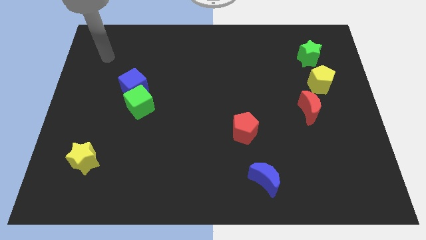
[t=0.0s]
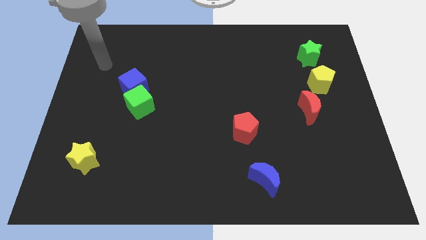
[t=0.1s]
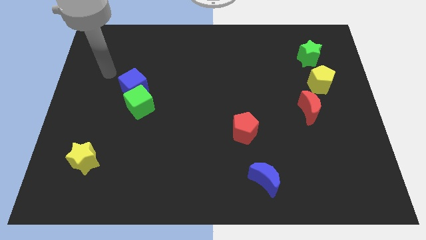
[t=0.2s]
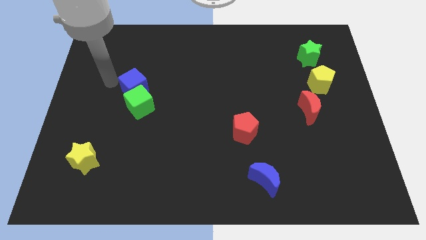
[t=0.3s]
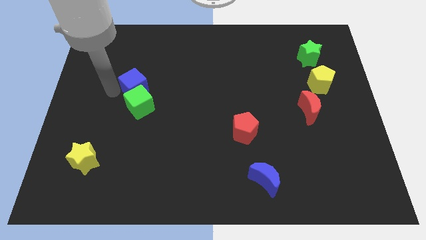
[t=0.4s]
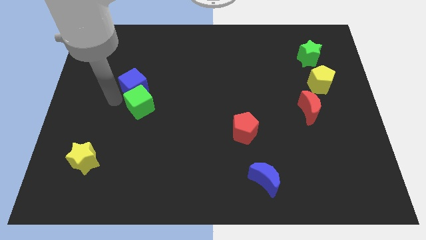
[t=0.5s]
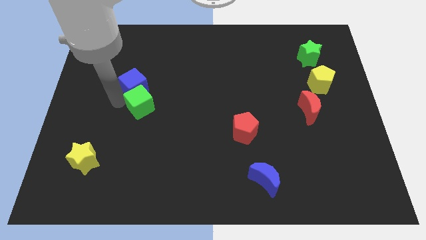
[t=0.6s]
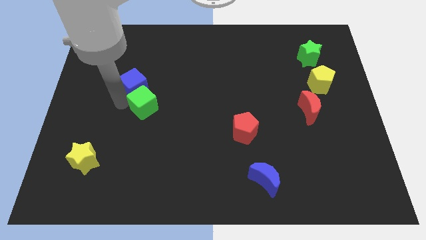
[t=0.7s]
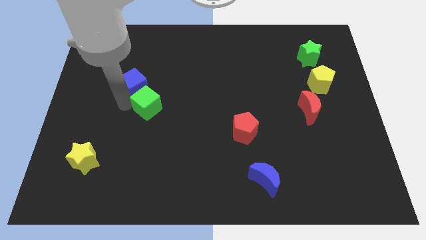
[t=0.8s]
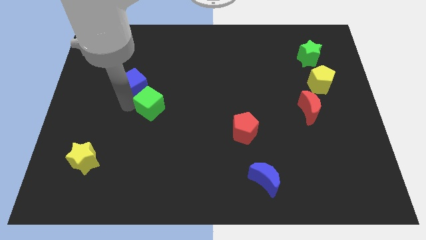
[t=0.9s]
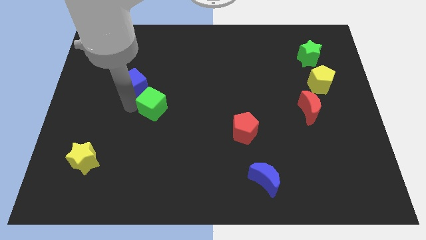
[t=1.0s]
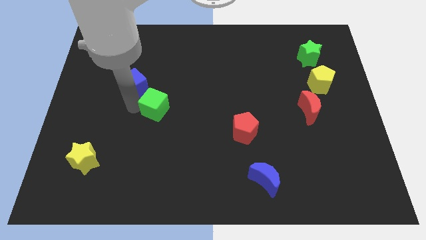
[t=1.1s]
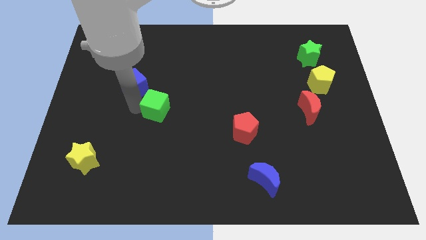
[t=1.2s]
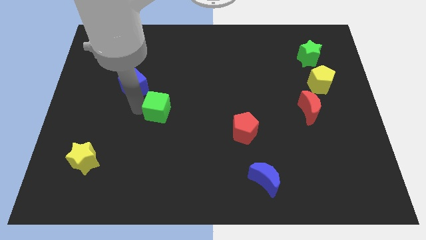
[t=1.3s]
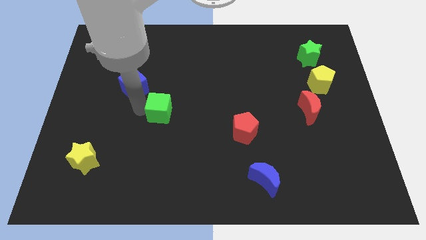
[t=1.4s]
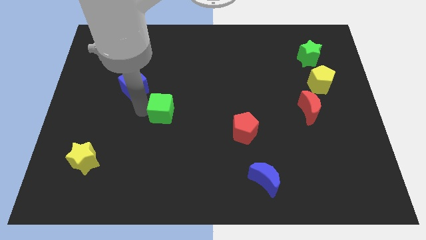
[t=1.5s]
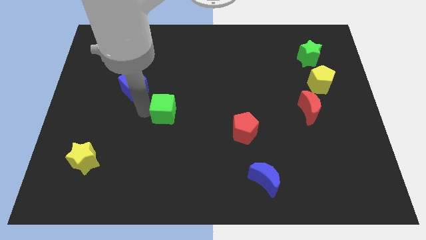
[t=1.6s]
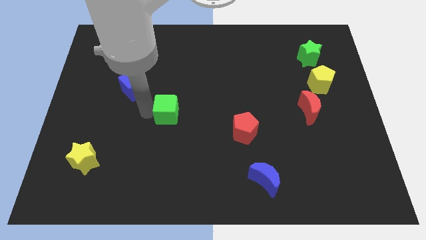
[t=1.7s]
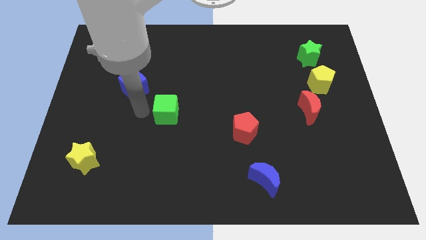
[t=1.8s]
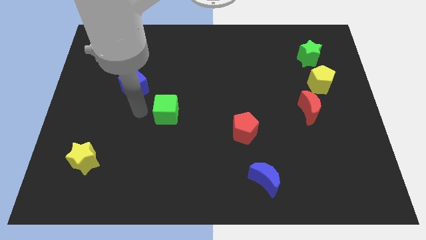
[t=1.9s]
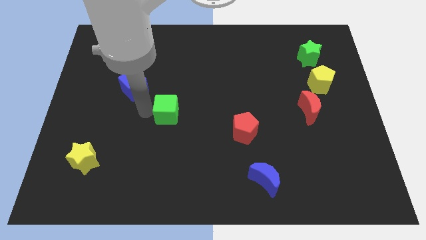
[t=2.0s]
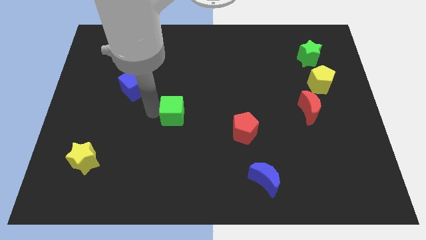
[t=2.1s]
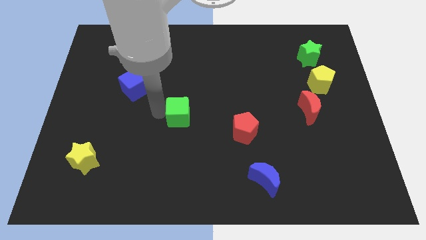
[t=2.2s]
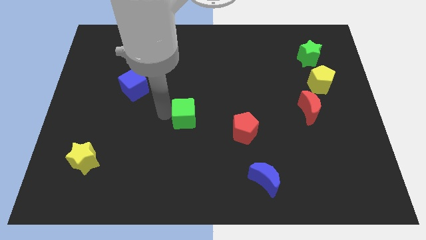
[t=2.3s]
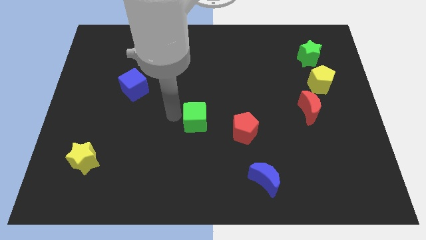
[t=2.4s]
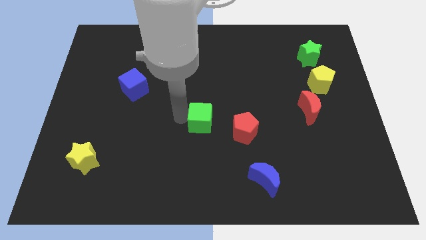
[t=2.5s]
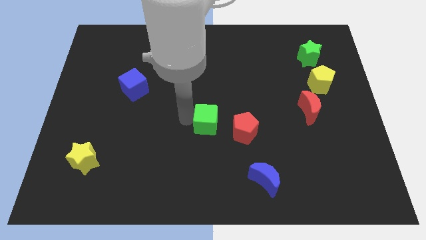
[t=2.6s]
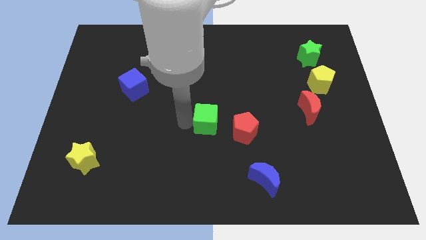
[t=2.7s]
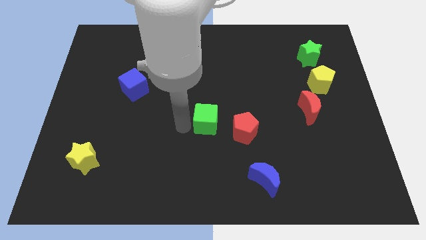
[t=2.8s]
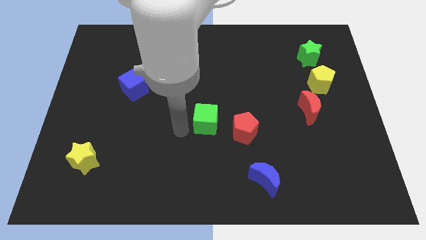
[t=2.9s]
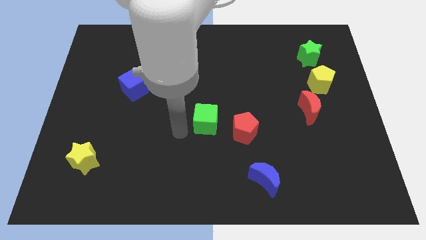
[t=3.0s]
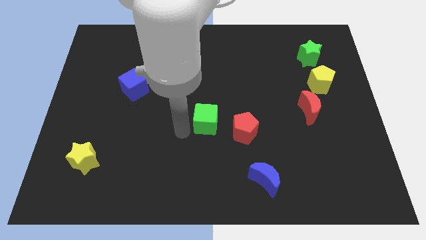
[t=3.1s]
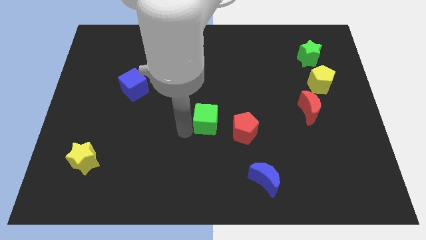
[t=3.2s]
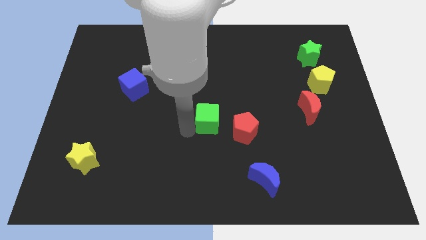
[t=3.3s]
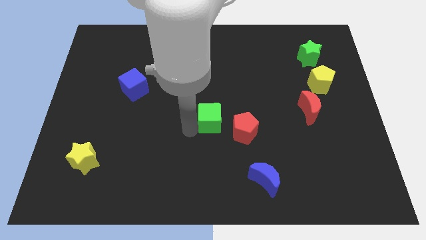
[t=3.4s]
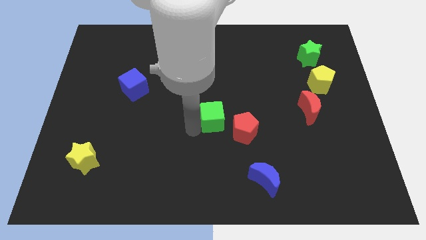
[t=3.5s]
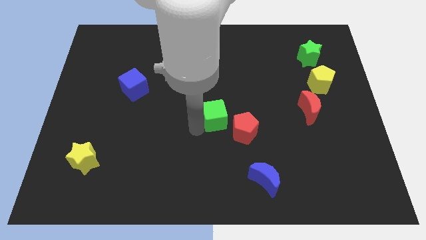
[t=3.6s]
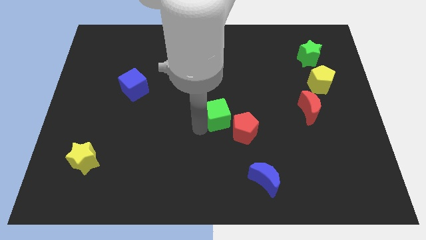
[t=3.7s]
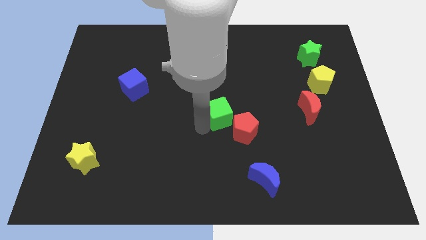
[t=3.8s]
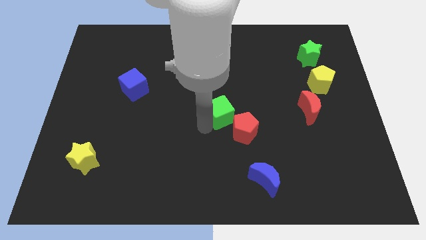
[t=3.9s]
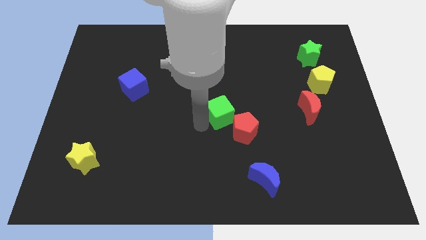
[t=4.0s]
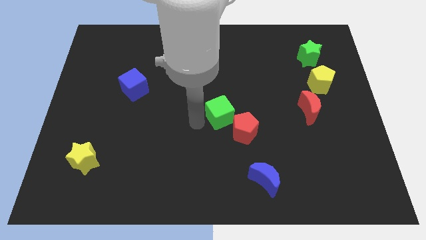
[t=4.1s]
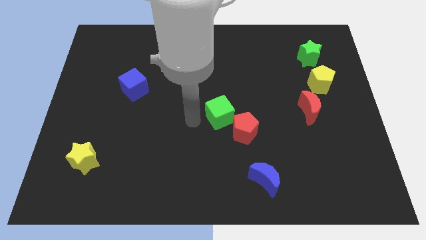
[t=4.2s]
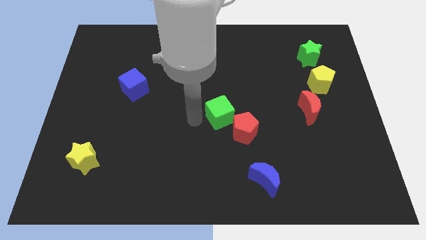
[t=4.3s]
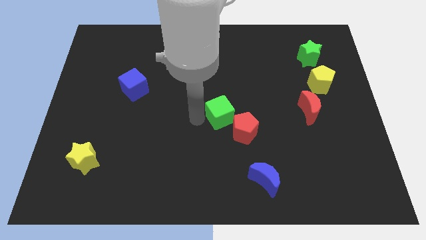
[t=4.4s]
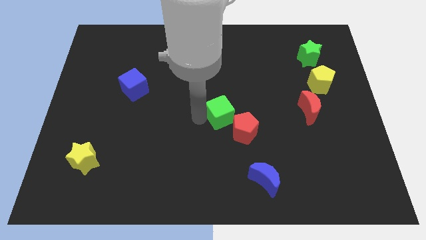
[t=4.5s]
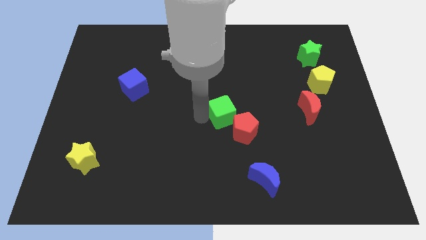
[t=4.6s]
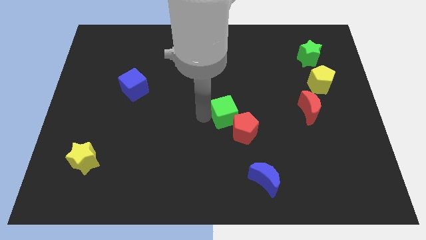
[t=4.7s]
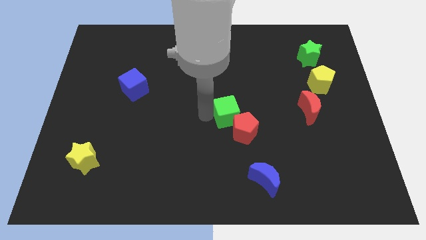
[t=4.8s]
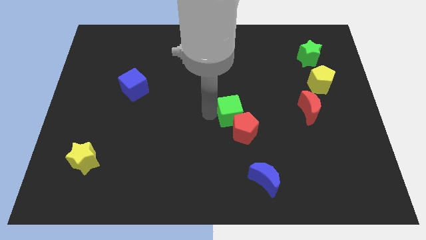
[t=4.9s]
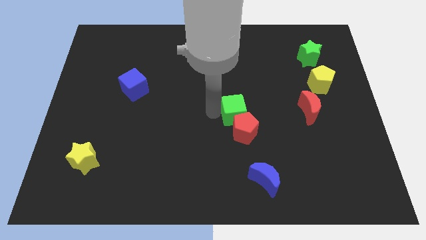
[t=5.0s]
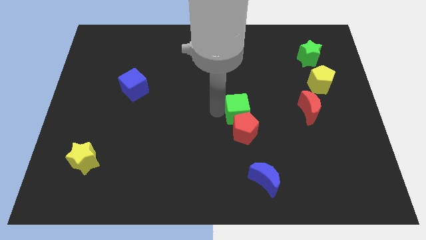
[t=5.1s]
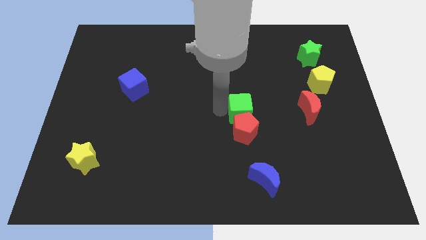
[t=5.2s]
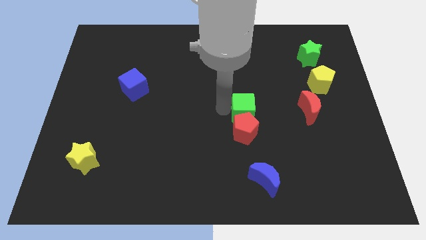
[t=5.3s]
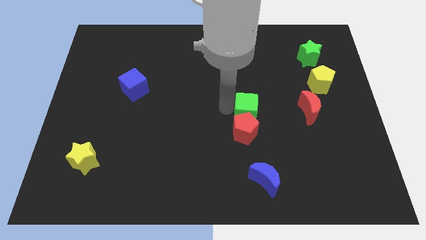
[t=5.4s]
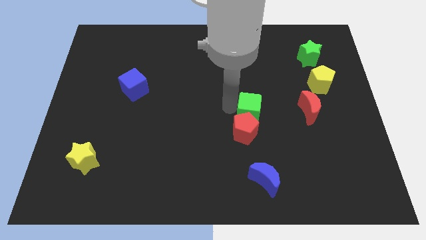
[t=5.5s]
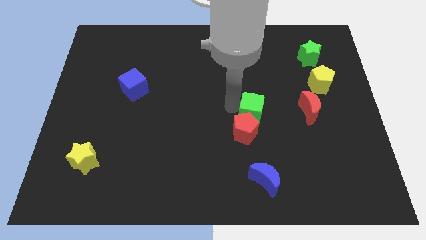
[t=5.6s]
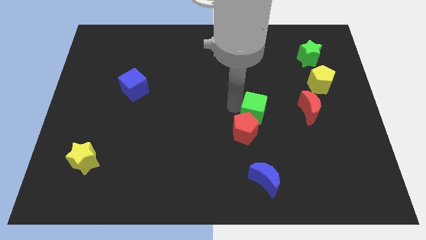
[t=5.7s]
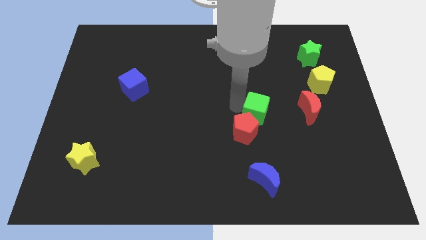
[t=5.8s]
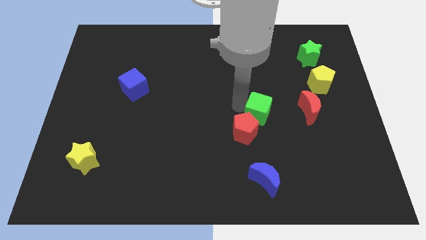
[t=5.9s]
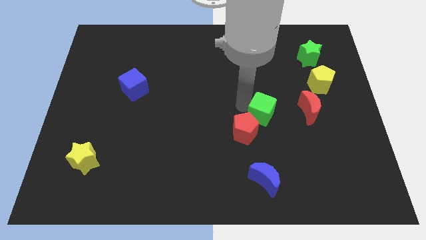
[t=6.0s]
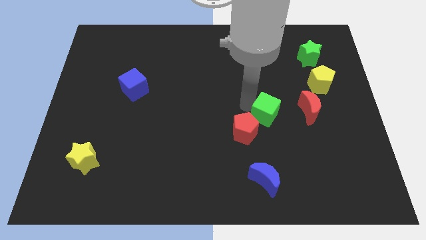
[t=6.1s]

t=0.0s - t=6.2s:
slide the green cube to the right side of the red pentagon

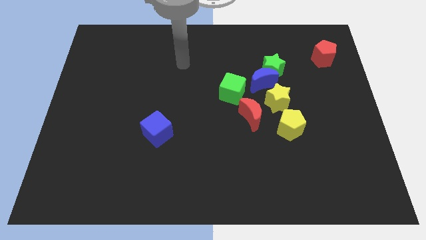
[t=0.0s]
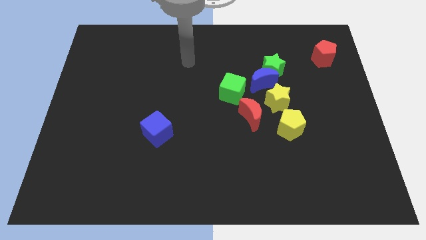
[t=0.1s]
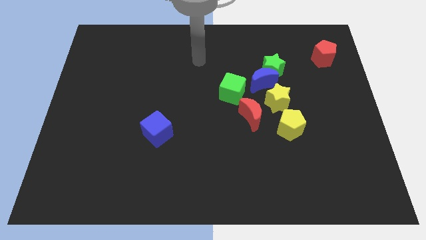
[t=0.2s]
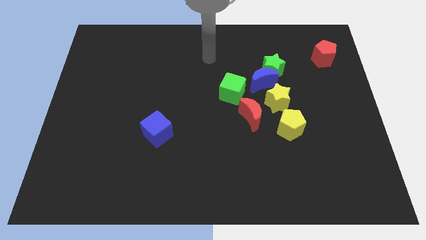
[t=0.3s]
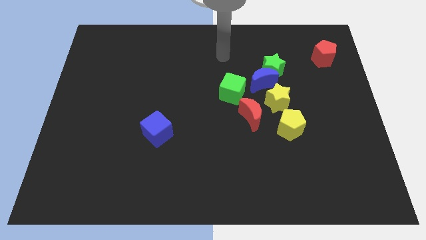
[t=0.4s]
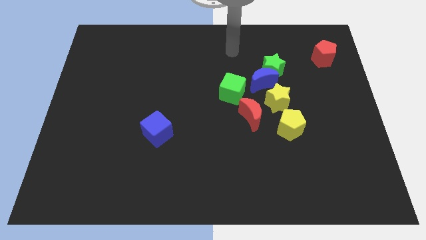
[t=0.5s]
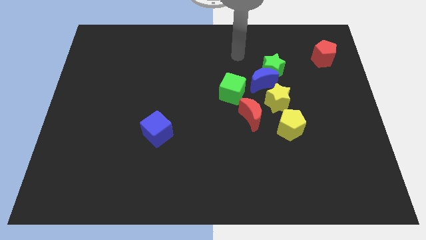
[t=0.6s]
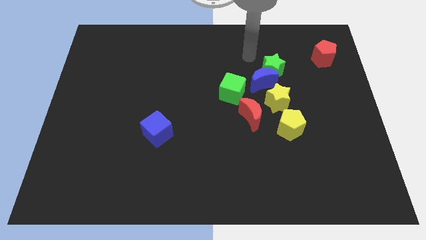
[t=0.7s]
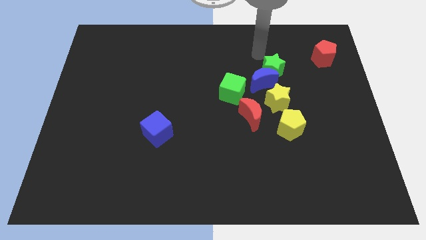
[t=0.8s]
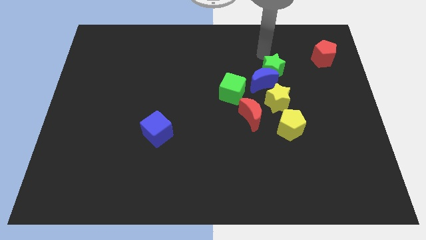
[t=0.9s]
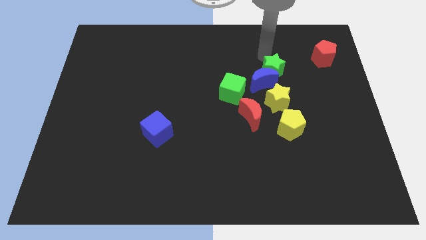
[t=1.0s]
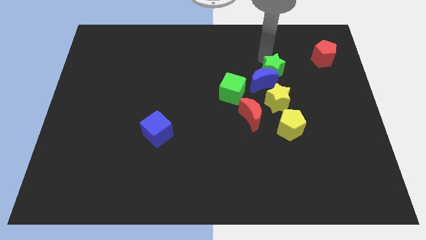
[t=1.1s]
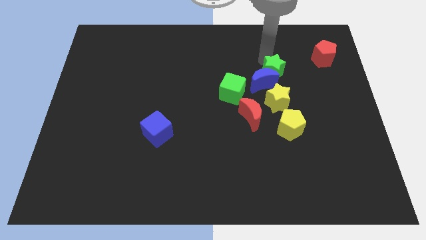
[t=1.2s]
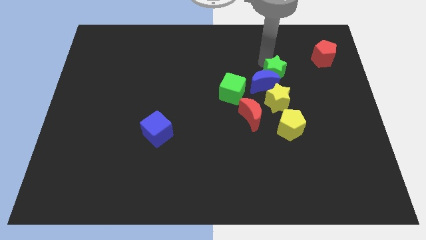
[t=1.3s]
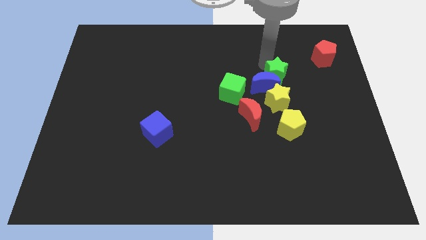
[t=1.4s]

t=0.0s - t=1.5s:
slide the green star above the yellow pentagon
